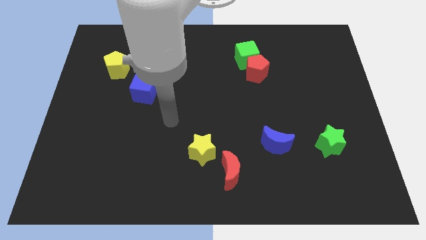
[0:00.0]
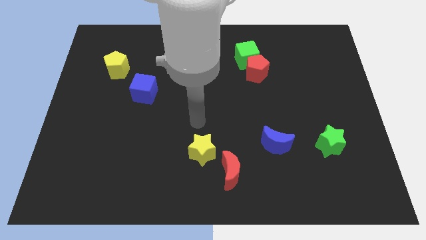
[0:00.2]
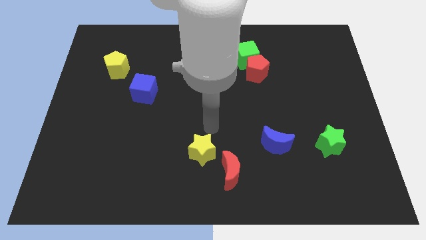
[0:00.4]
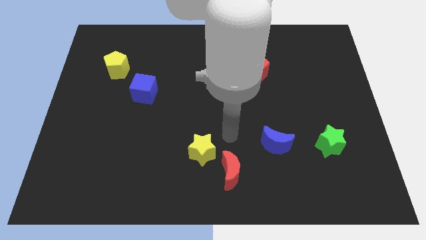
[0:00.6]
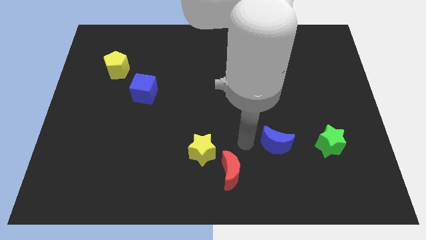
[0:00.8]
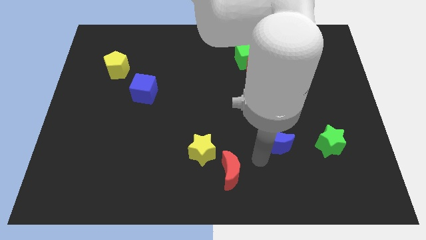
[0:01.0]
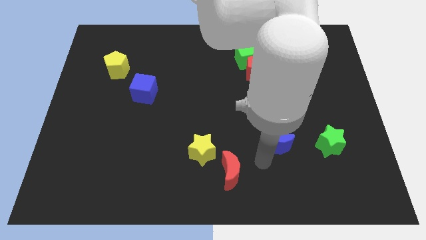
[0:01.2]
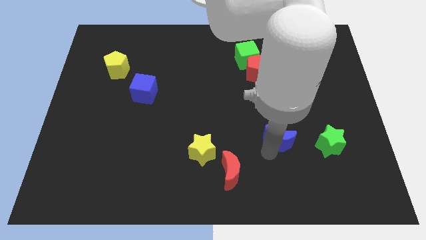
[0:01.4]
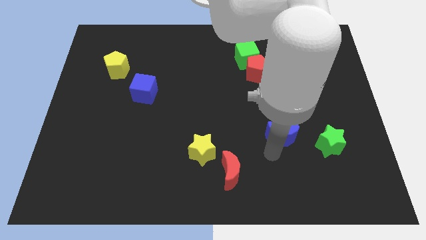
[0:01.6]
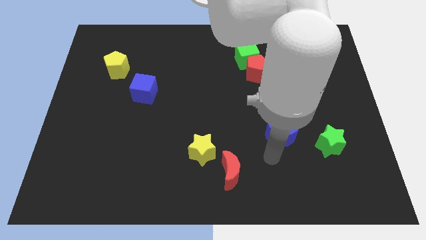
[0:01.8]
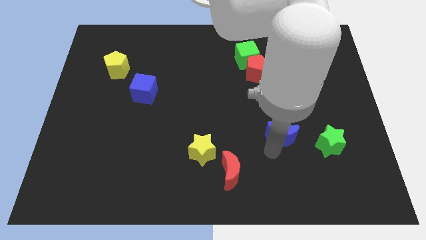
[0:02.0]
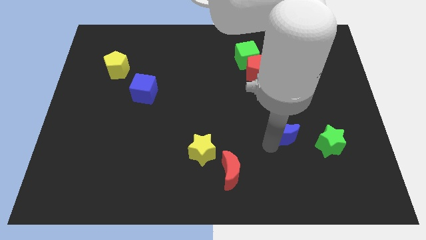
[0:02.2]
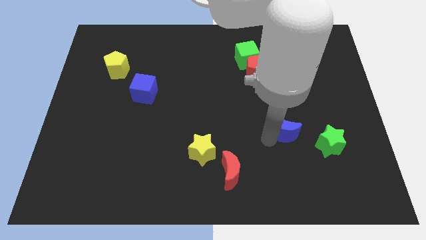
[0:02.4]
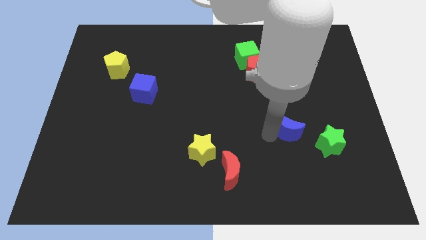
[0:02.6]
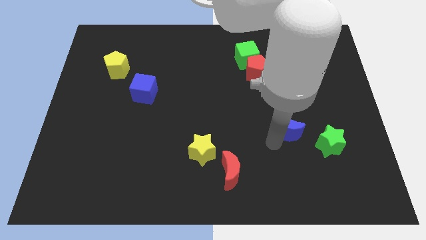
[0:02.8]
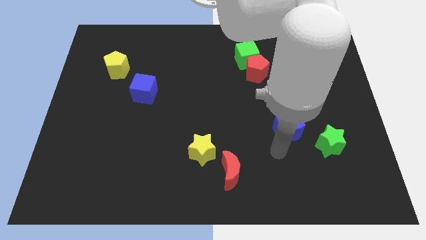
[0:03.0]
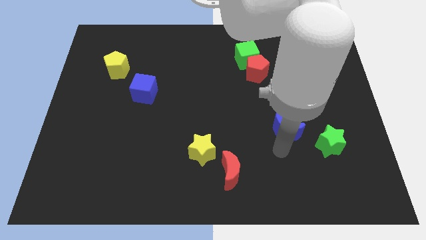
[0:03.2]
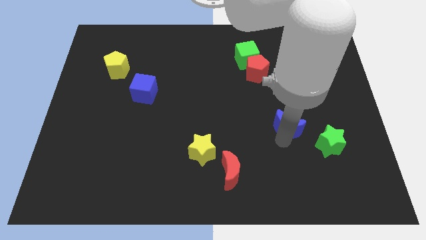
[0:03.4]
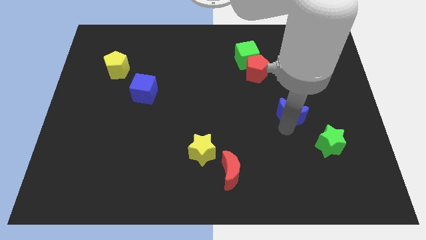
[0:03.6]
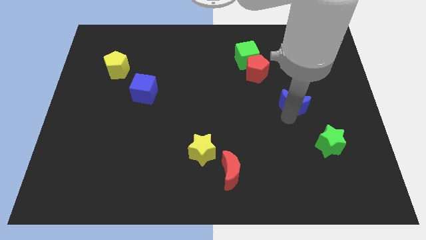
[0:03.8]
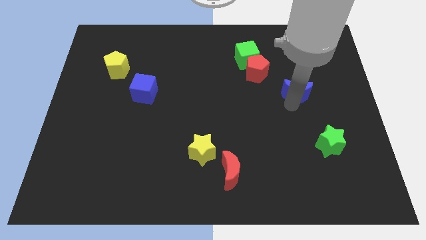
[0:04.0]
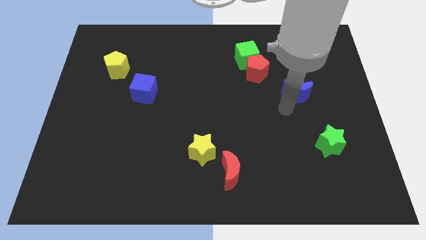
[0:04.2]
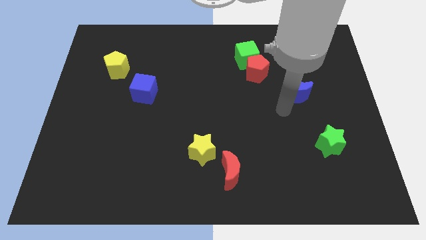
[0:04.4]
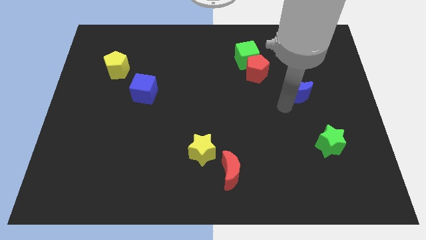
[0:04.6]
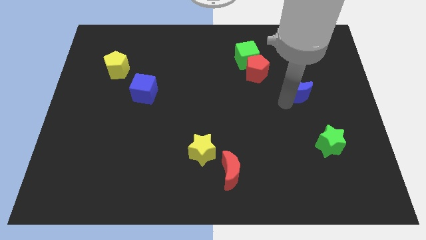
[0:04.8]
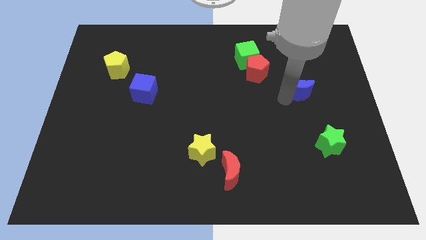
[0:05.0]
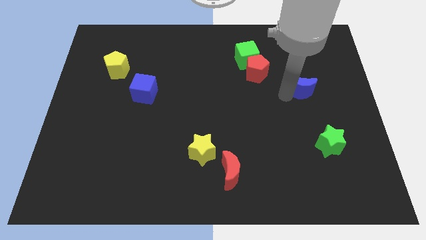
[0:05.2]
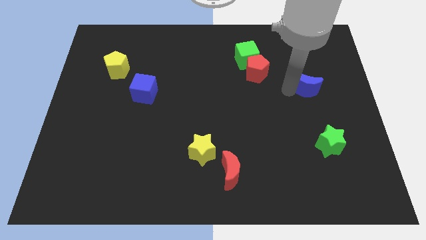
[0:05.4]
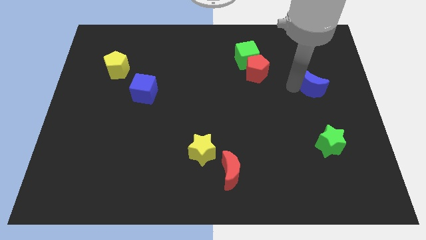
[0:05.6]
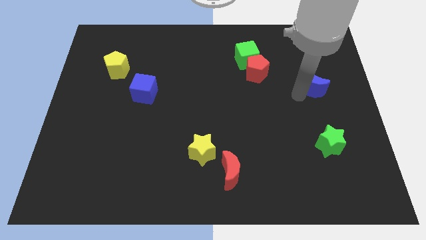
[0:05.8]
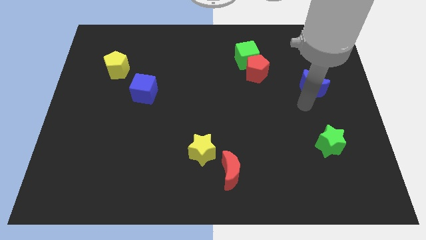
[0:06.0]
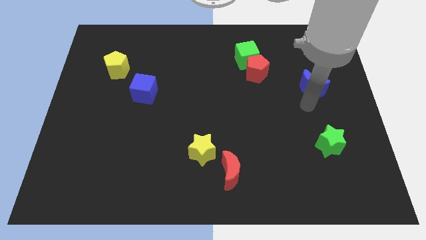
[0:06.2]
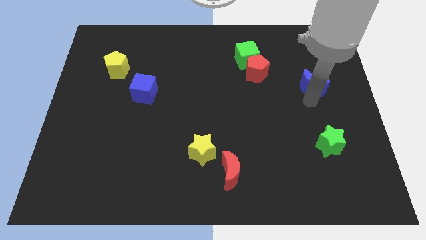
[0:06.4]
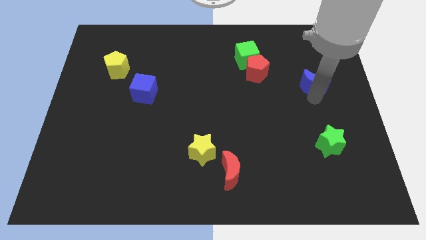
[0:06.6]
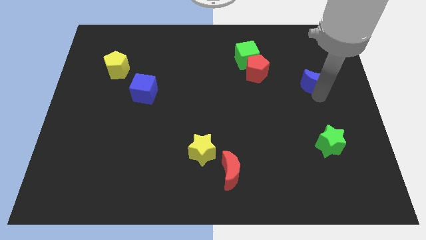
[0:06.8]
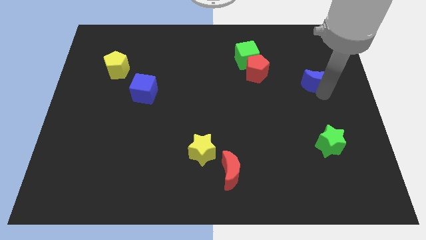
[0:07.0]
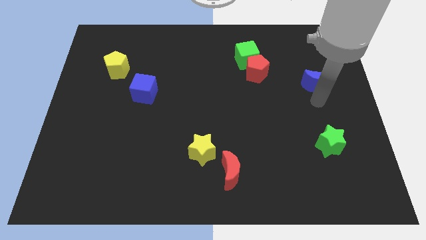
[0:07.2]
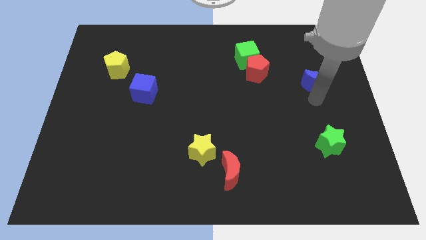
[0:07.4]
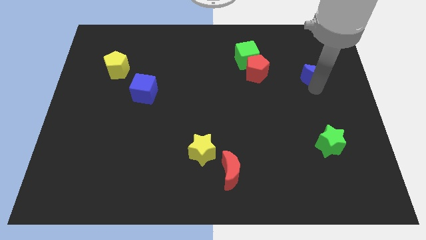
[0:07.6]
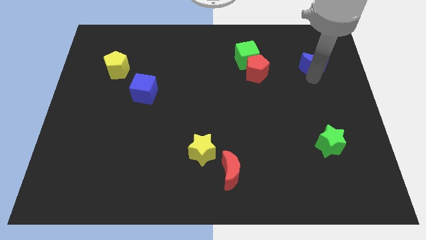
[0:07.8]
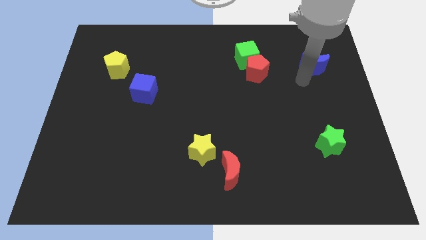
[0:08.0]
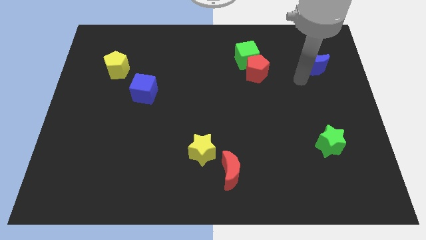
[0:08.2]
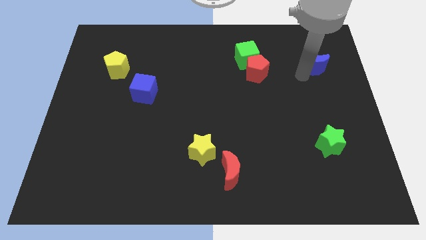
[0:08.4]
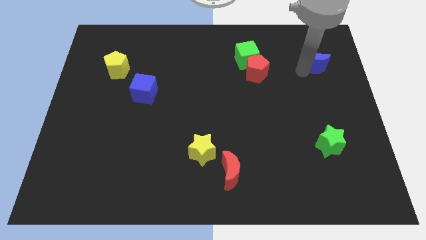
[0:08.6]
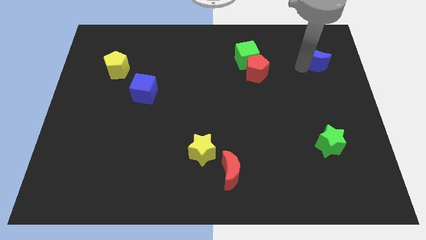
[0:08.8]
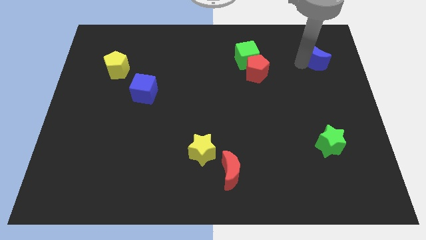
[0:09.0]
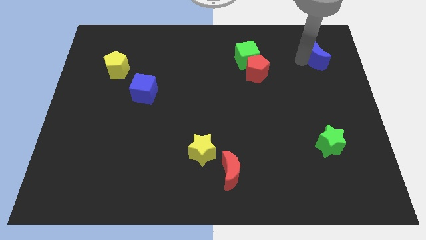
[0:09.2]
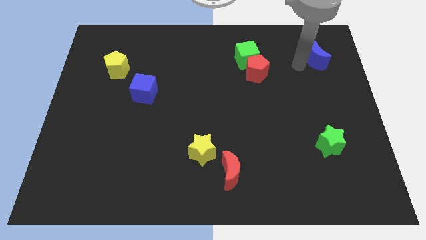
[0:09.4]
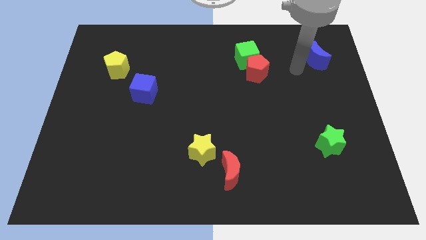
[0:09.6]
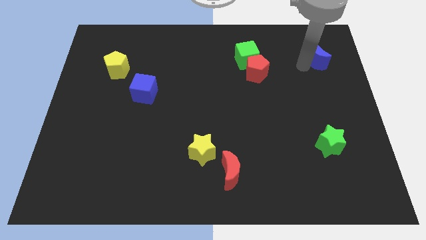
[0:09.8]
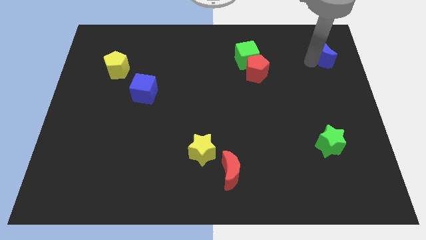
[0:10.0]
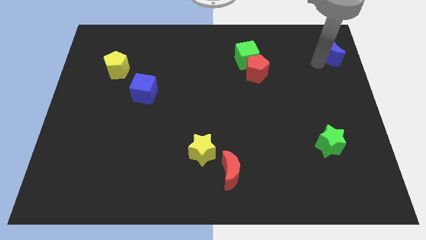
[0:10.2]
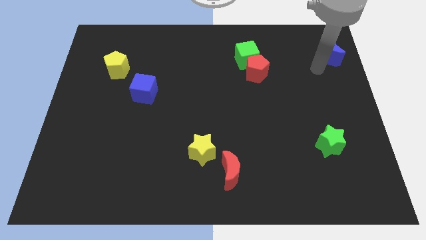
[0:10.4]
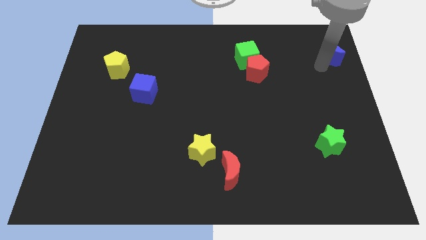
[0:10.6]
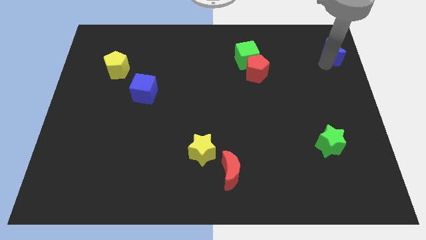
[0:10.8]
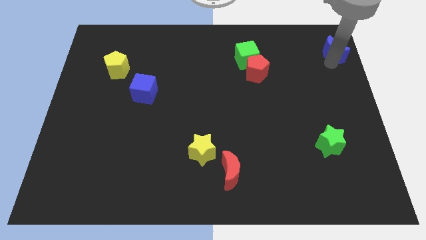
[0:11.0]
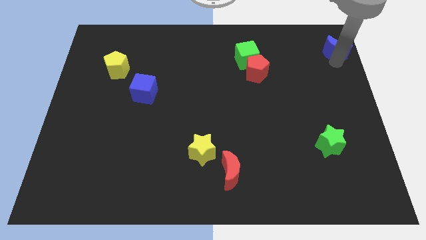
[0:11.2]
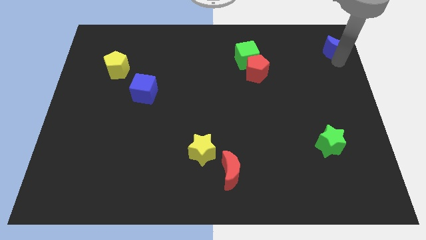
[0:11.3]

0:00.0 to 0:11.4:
push the blue moon to the top right
